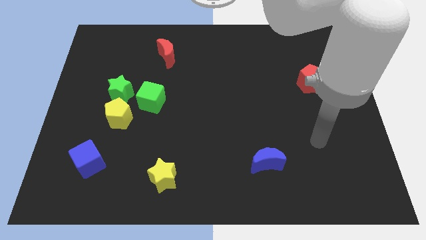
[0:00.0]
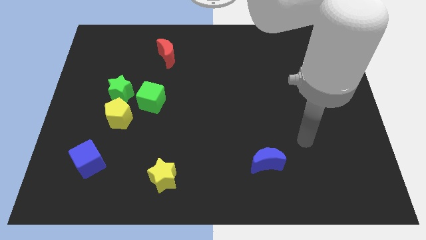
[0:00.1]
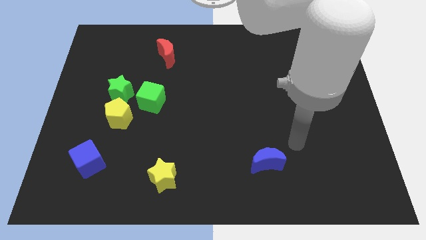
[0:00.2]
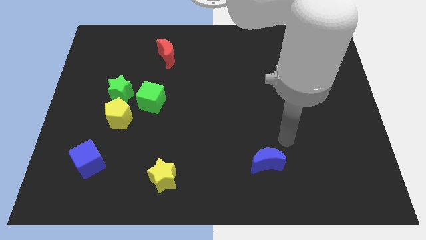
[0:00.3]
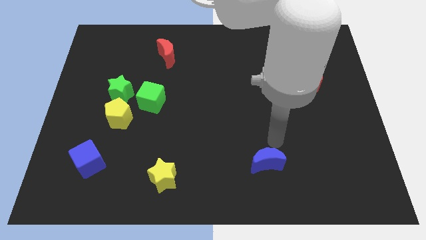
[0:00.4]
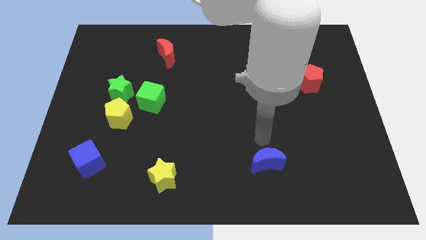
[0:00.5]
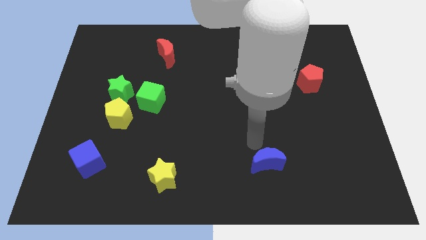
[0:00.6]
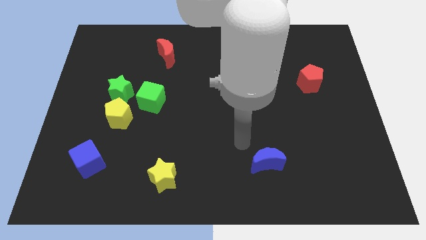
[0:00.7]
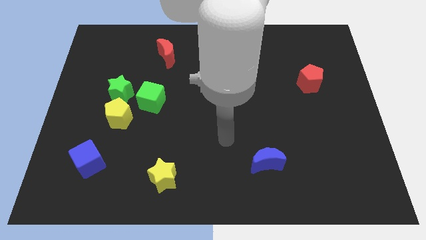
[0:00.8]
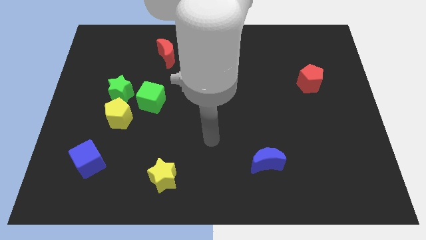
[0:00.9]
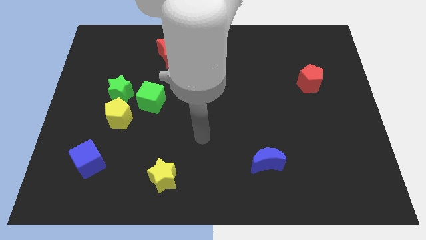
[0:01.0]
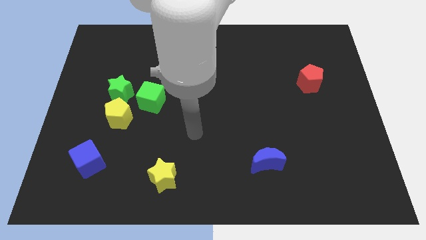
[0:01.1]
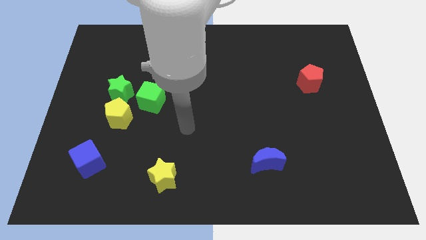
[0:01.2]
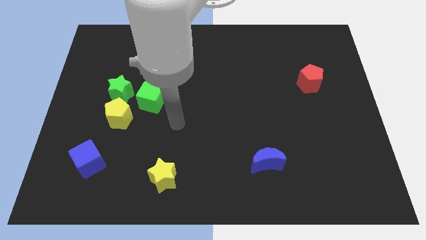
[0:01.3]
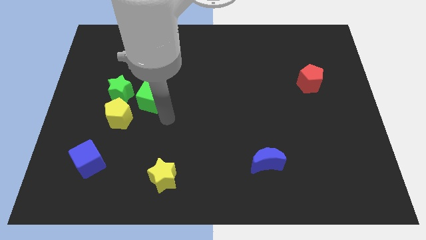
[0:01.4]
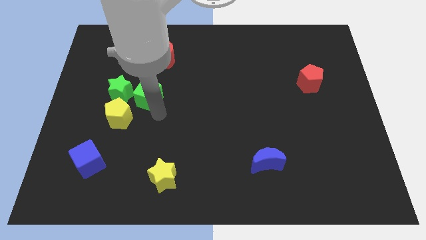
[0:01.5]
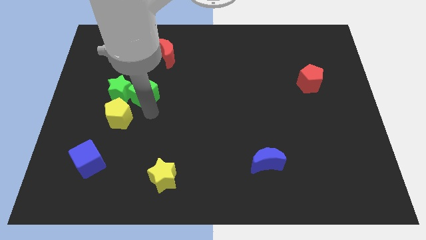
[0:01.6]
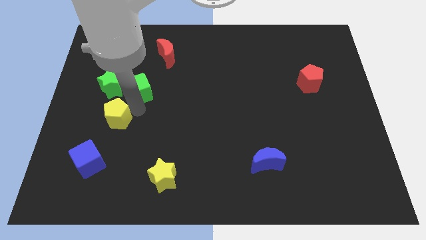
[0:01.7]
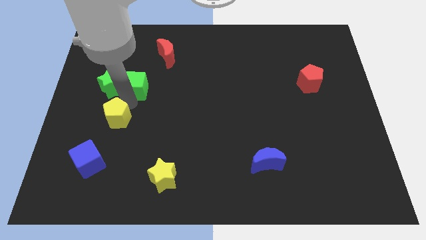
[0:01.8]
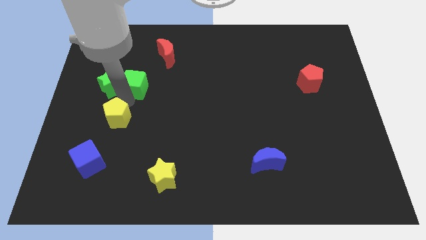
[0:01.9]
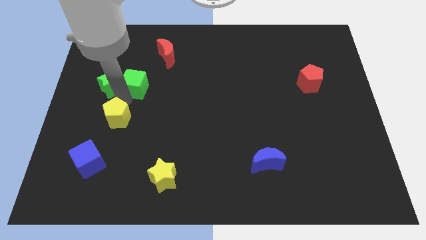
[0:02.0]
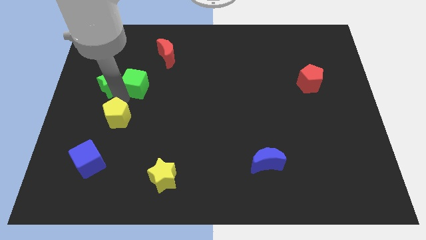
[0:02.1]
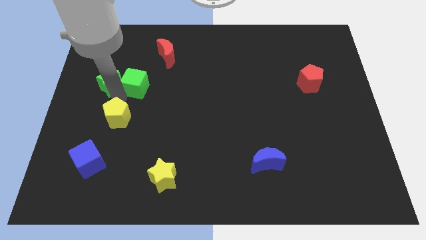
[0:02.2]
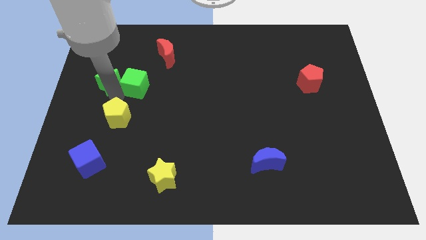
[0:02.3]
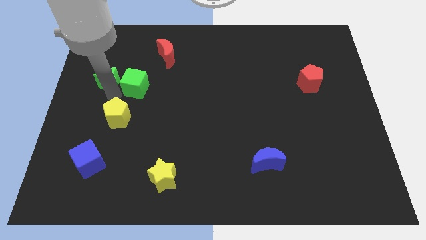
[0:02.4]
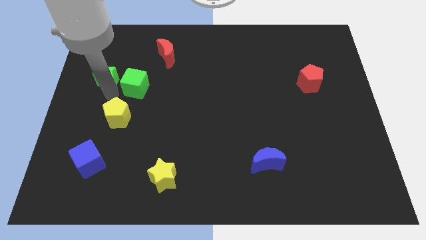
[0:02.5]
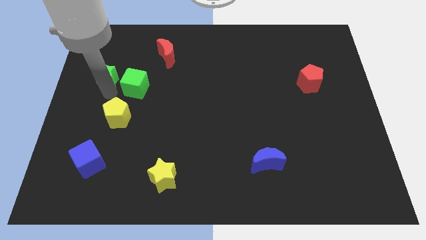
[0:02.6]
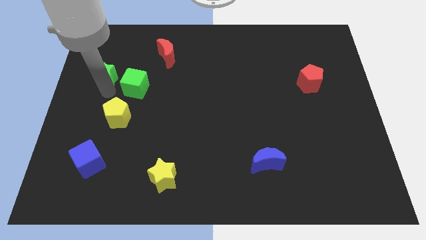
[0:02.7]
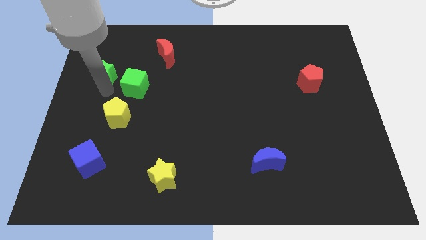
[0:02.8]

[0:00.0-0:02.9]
separate the green star from the yellow pentagon and green cube

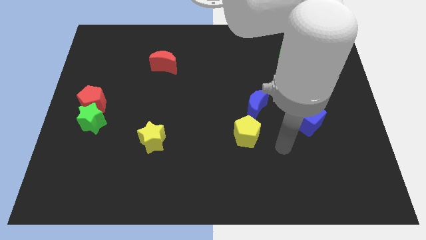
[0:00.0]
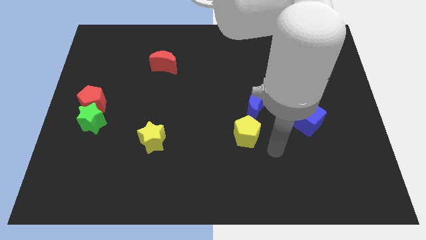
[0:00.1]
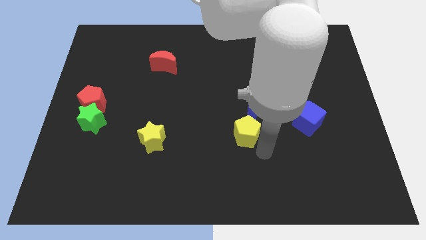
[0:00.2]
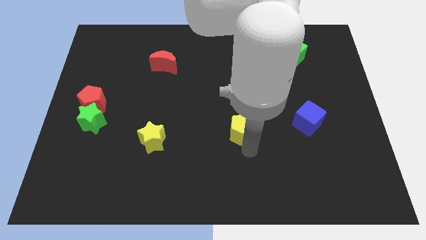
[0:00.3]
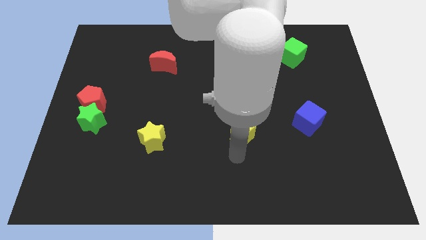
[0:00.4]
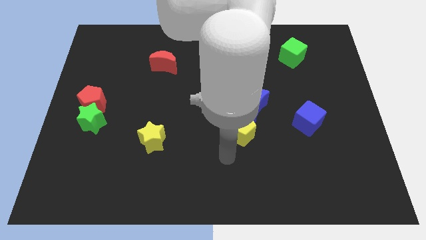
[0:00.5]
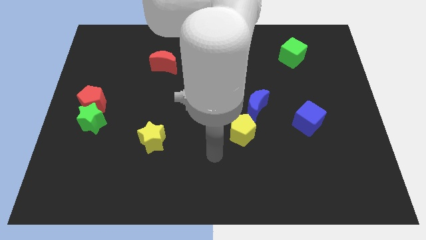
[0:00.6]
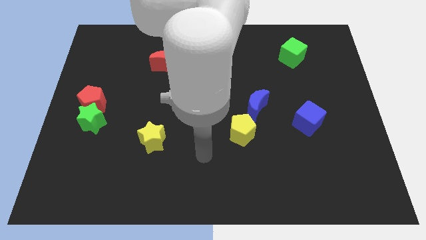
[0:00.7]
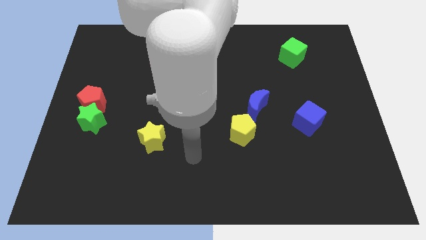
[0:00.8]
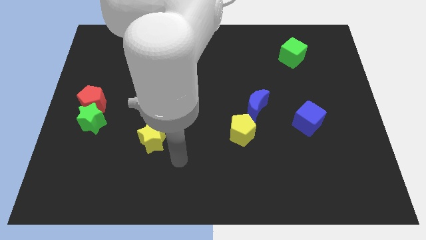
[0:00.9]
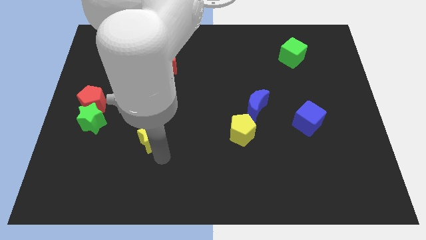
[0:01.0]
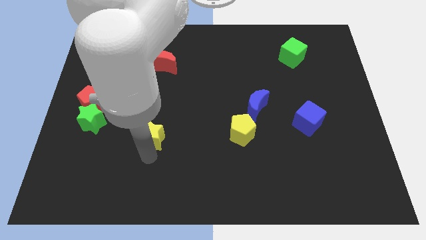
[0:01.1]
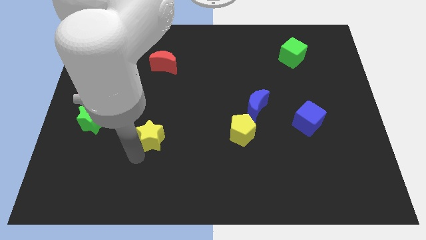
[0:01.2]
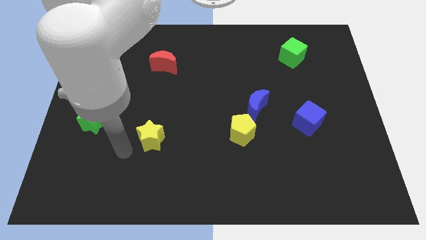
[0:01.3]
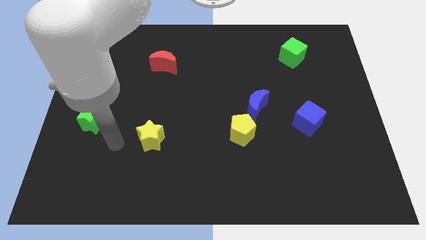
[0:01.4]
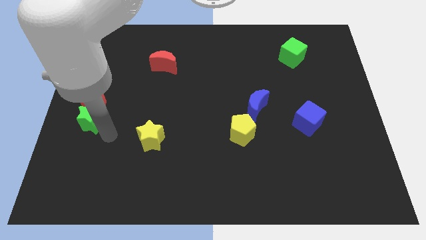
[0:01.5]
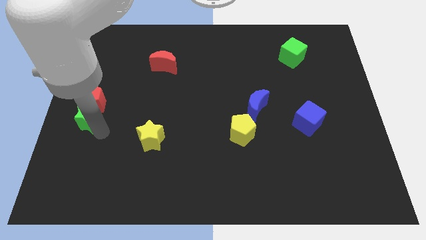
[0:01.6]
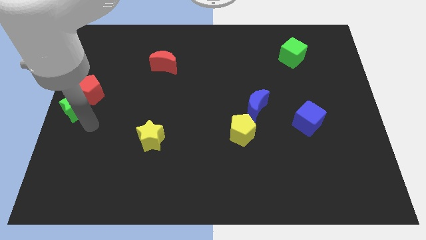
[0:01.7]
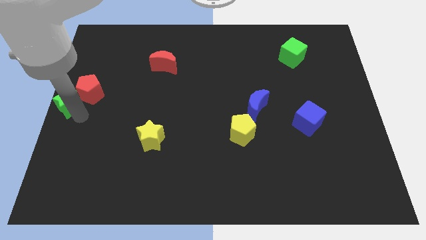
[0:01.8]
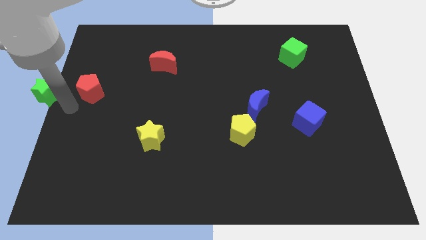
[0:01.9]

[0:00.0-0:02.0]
move the red pentagon away from the green star

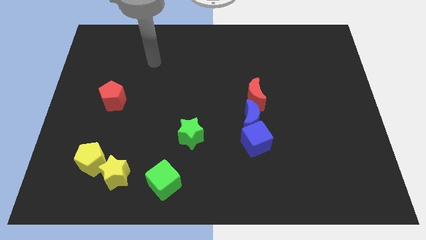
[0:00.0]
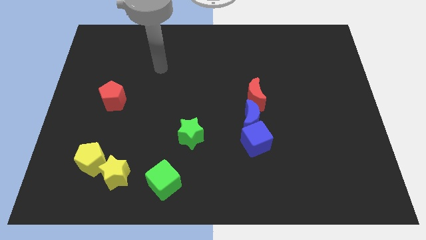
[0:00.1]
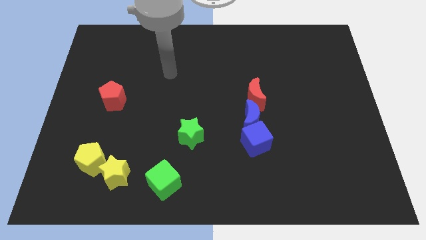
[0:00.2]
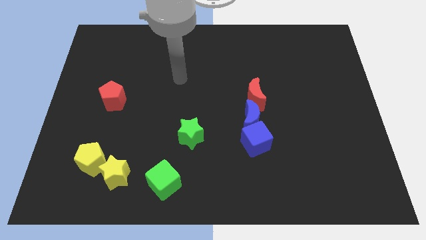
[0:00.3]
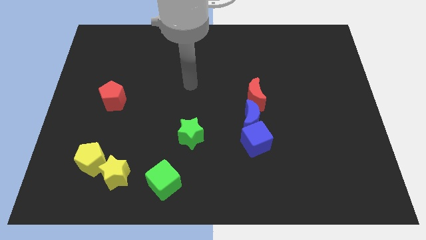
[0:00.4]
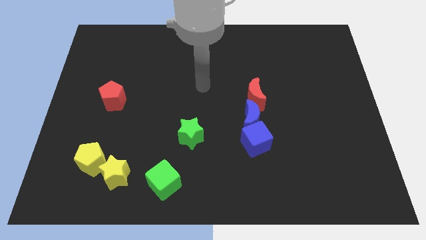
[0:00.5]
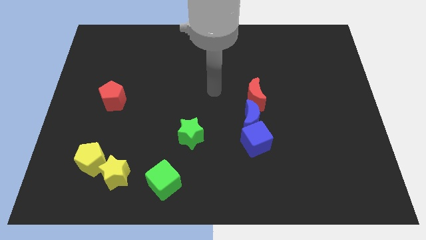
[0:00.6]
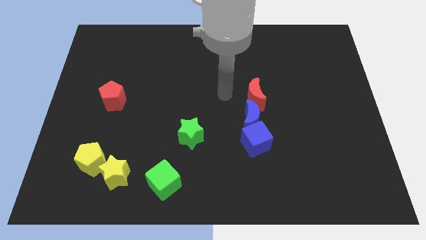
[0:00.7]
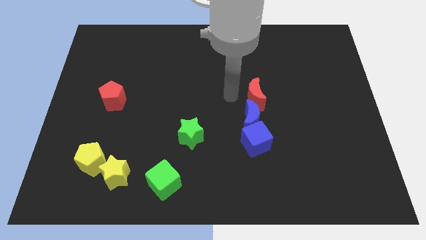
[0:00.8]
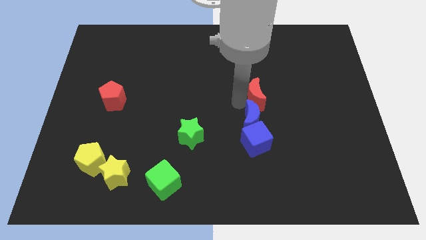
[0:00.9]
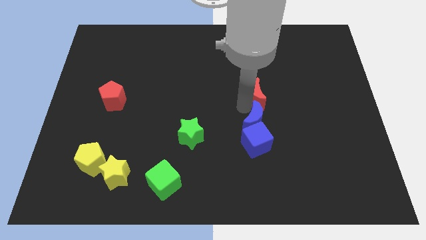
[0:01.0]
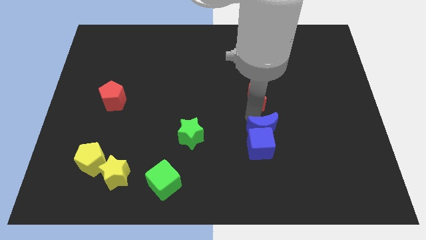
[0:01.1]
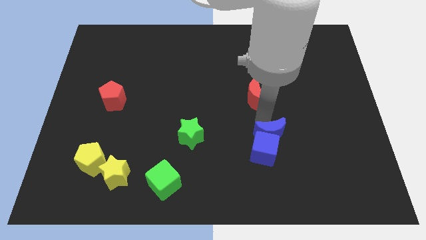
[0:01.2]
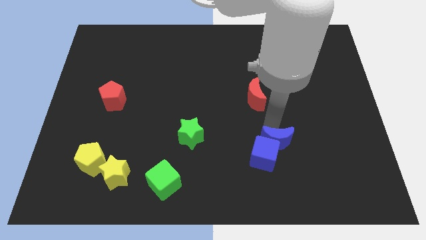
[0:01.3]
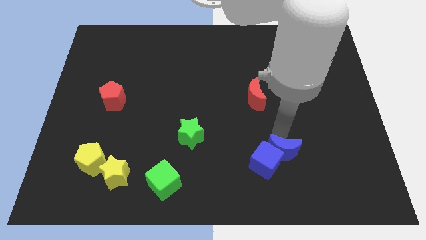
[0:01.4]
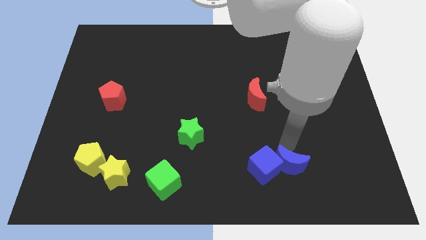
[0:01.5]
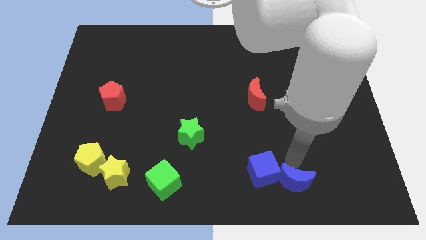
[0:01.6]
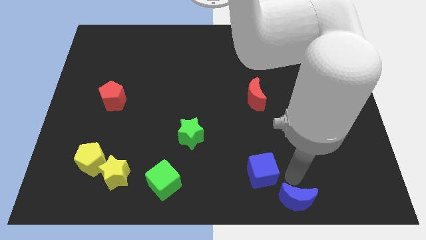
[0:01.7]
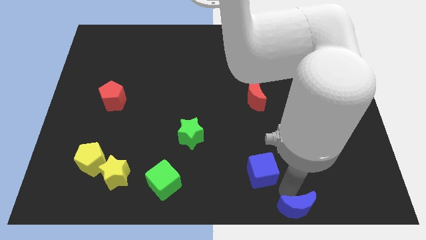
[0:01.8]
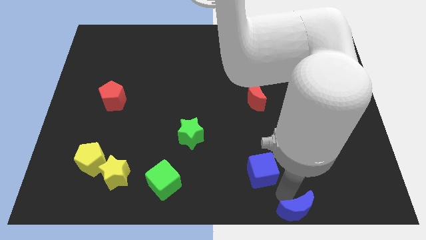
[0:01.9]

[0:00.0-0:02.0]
move the blue cube away from the blue moon

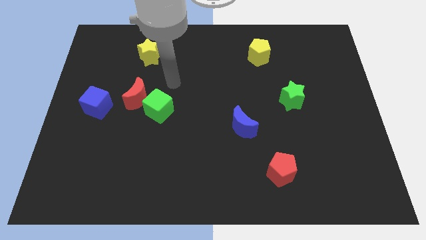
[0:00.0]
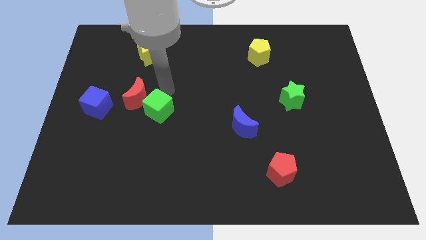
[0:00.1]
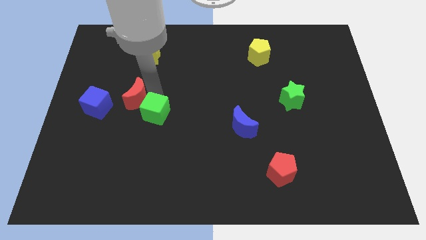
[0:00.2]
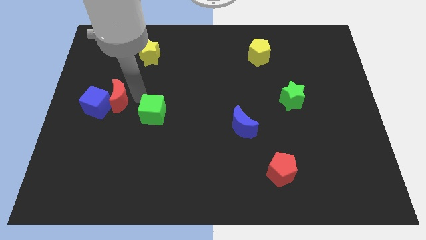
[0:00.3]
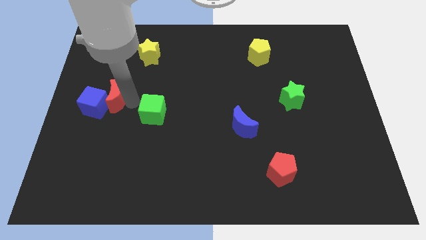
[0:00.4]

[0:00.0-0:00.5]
move the green cube away from the red moon

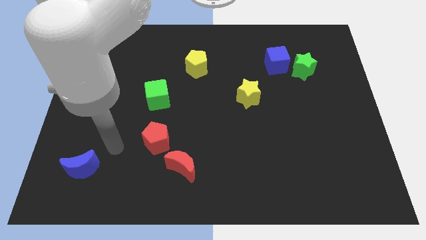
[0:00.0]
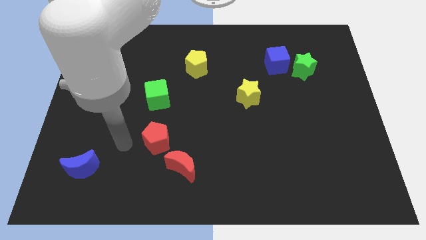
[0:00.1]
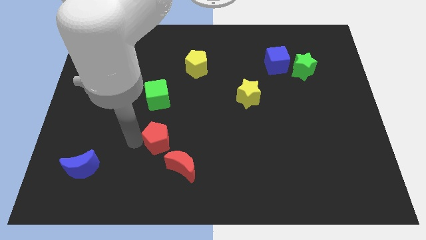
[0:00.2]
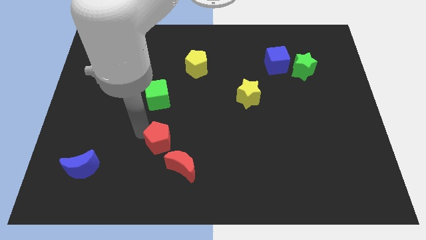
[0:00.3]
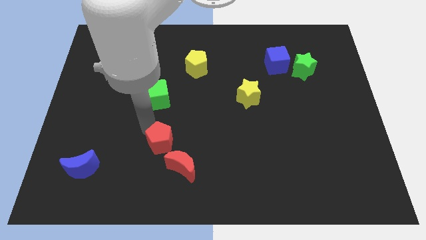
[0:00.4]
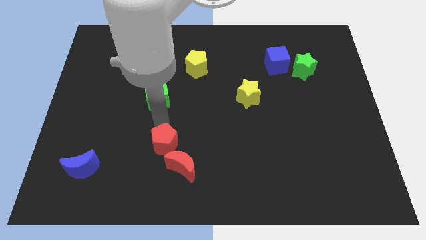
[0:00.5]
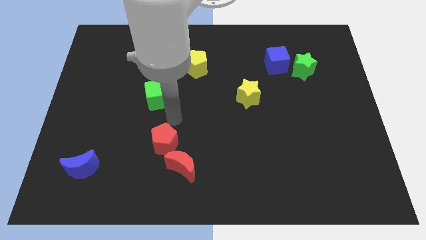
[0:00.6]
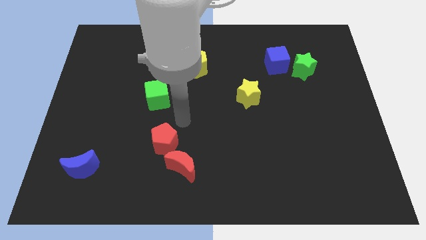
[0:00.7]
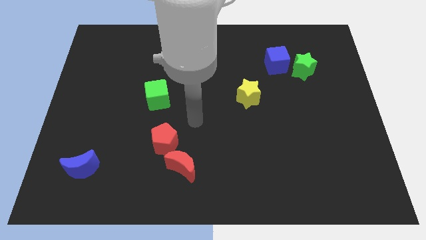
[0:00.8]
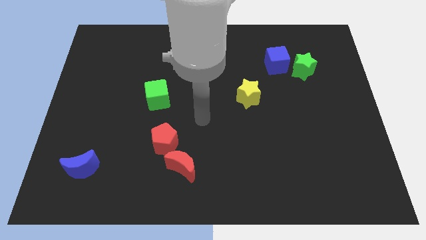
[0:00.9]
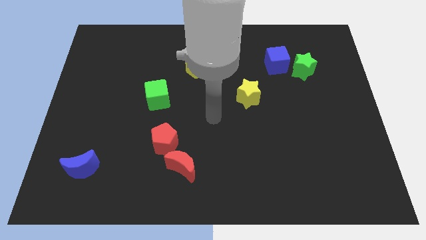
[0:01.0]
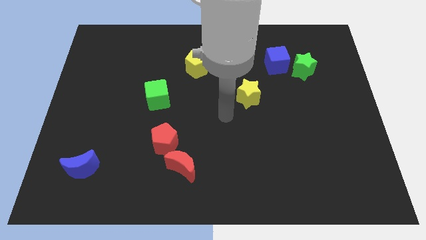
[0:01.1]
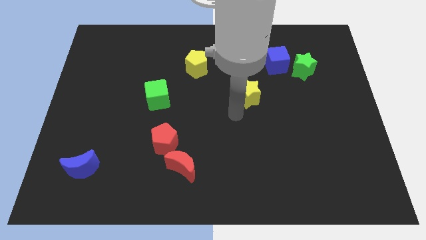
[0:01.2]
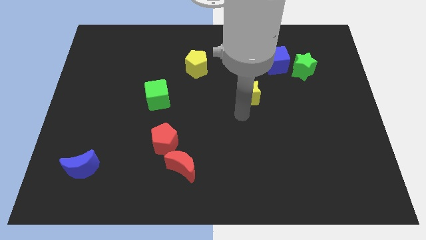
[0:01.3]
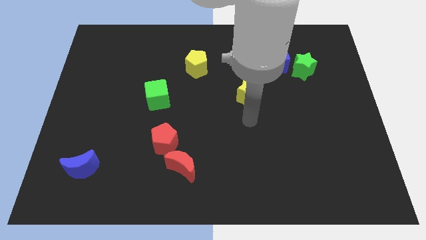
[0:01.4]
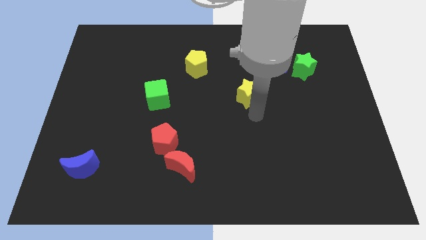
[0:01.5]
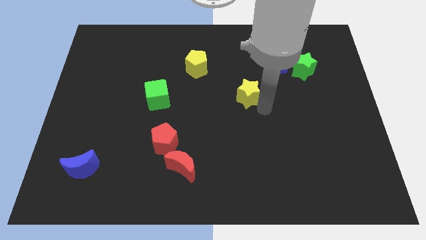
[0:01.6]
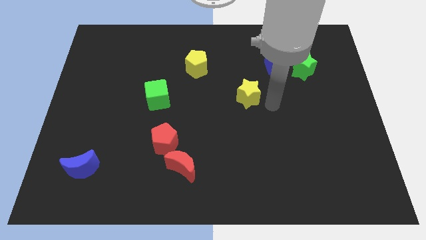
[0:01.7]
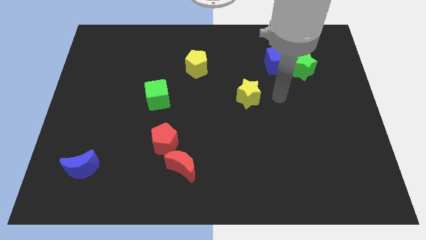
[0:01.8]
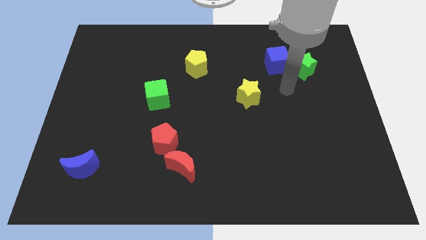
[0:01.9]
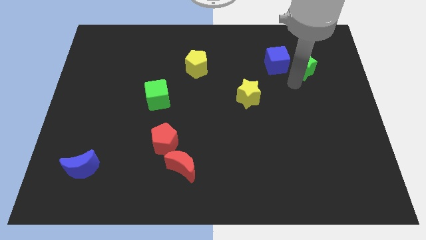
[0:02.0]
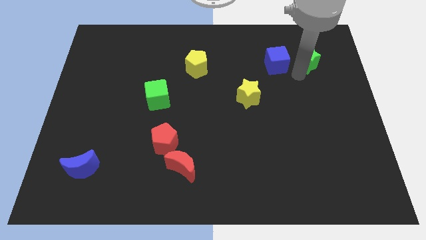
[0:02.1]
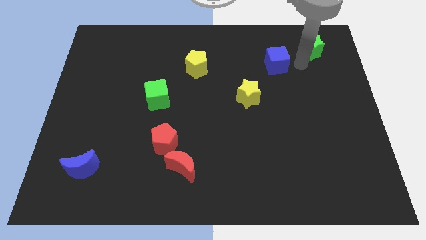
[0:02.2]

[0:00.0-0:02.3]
separate the blue cube from the green star
